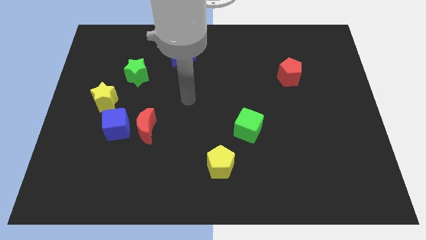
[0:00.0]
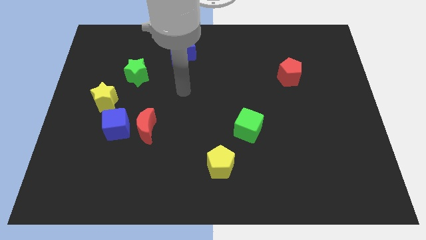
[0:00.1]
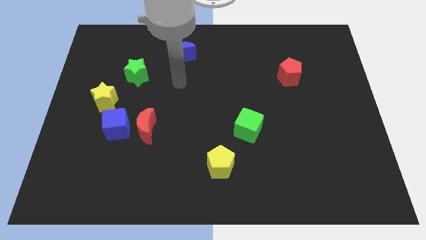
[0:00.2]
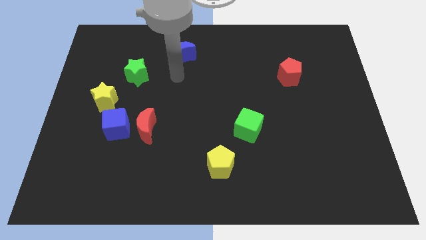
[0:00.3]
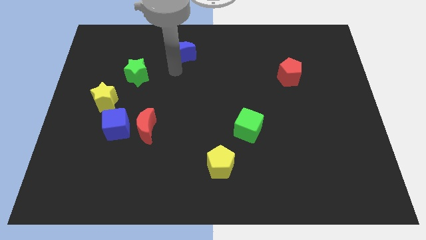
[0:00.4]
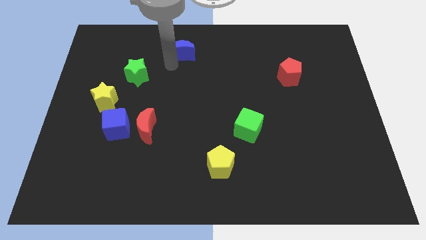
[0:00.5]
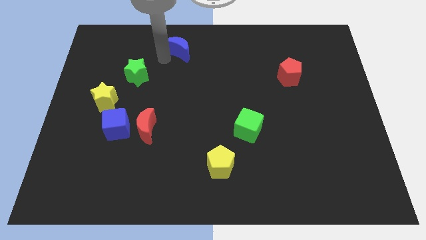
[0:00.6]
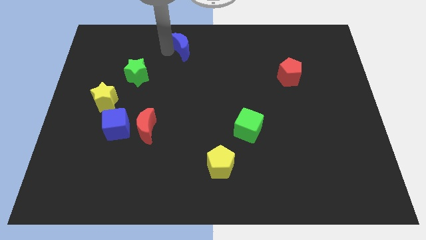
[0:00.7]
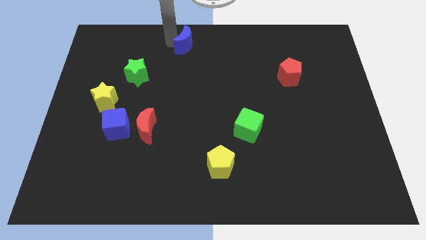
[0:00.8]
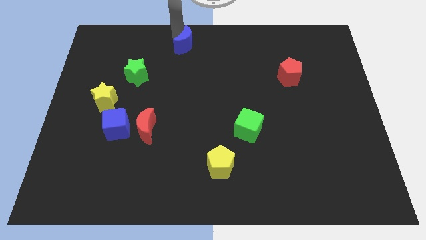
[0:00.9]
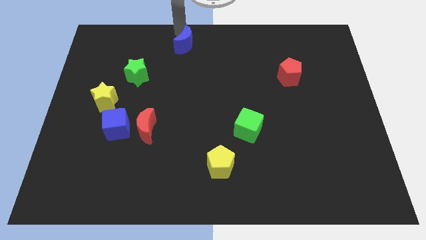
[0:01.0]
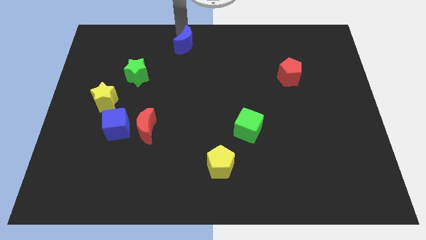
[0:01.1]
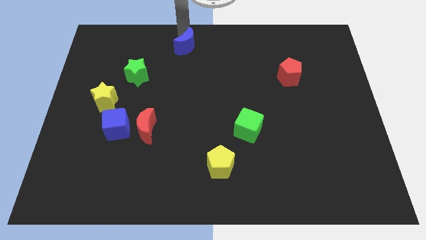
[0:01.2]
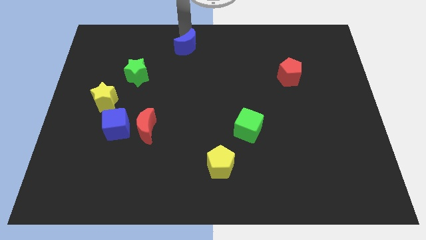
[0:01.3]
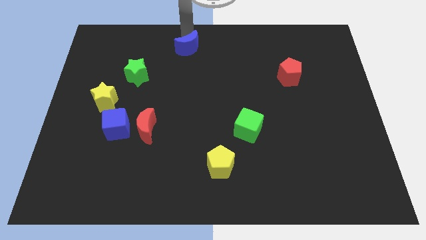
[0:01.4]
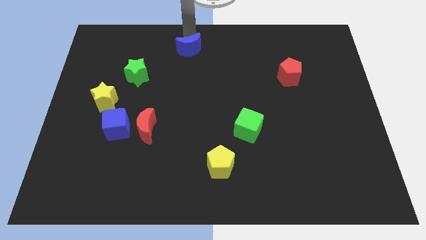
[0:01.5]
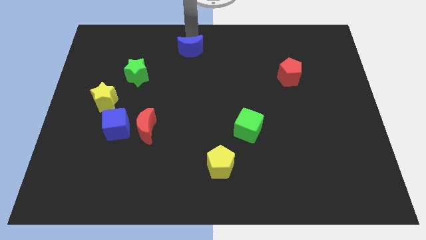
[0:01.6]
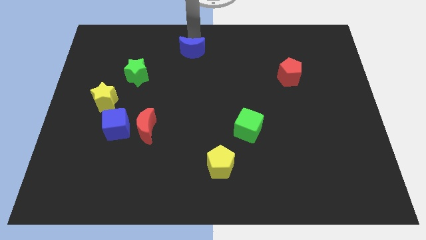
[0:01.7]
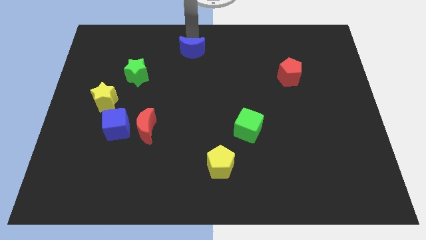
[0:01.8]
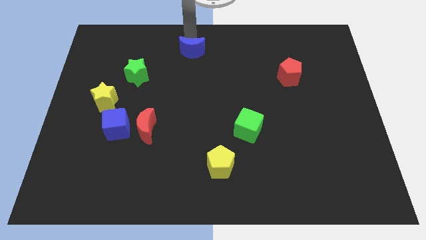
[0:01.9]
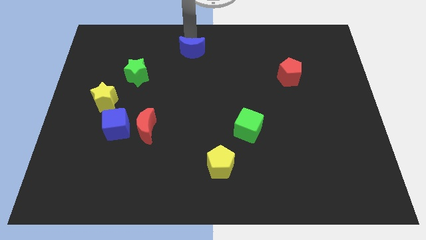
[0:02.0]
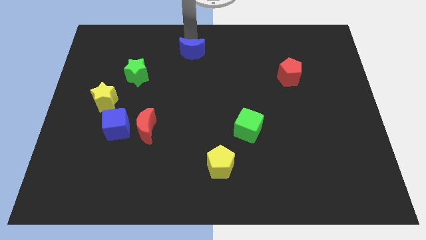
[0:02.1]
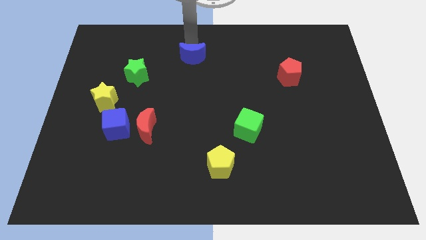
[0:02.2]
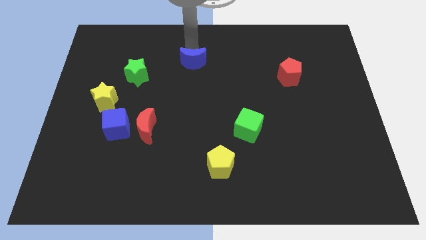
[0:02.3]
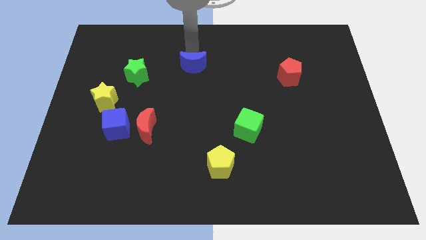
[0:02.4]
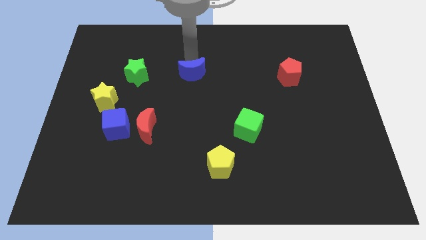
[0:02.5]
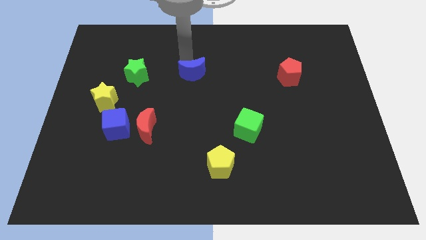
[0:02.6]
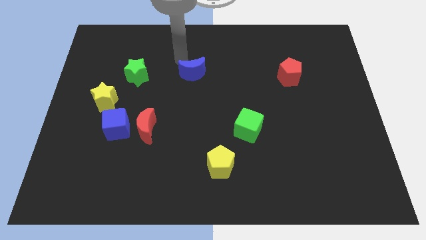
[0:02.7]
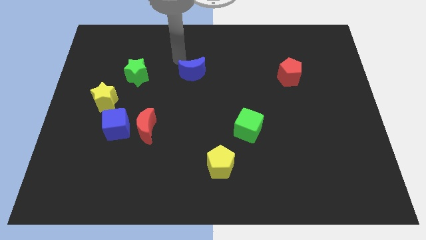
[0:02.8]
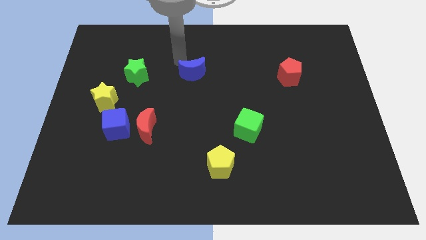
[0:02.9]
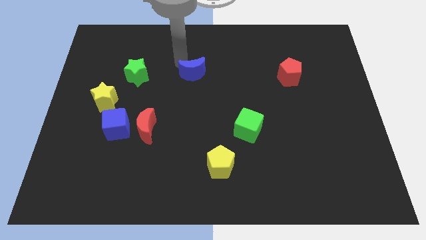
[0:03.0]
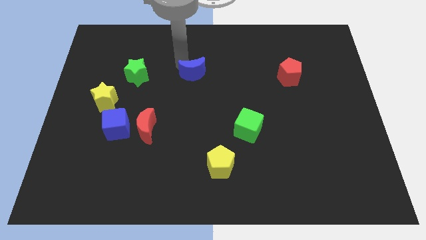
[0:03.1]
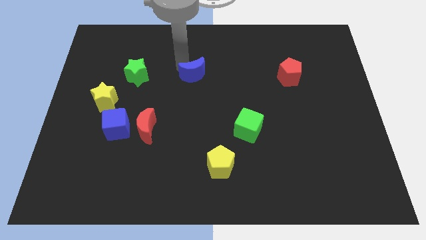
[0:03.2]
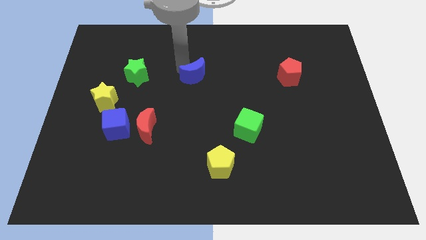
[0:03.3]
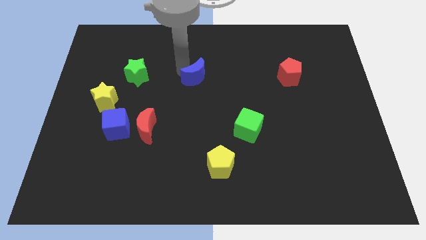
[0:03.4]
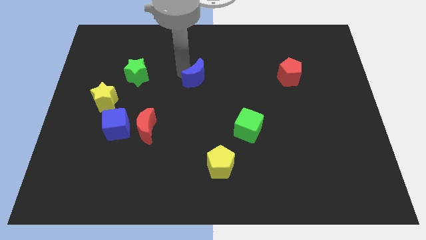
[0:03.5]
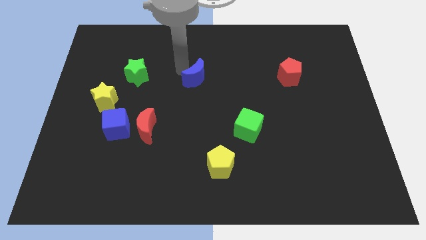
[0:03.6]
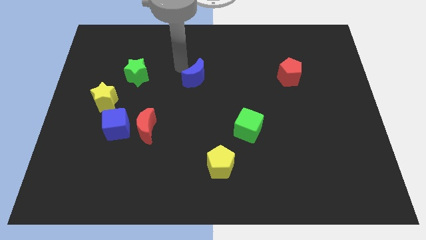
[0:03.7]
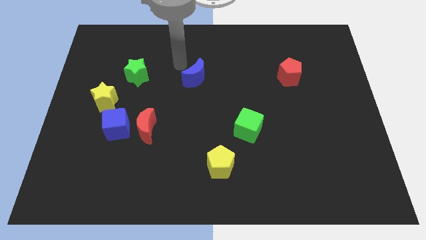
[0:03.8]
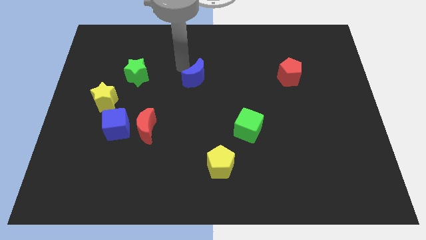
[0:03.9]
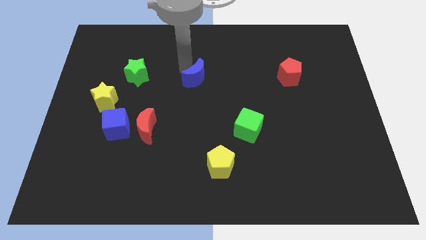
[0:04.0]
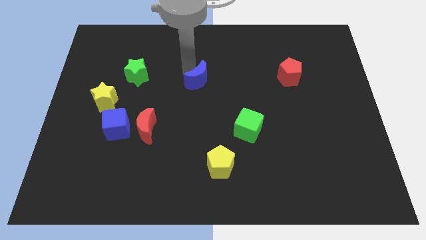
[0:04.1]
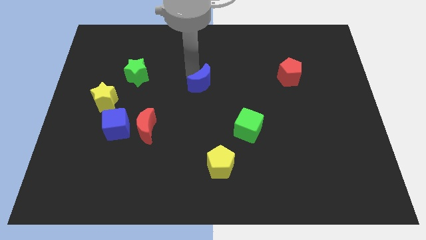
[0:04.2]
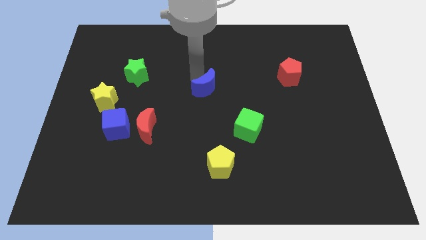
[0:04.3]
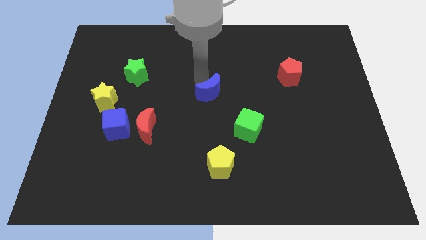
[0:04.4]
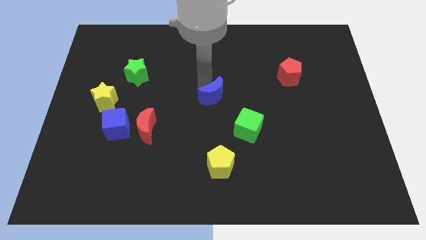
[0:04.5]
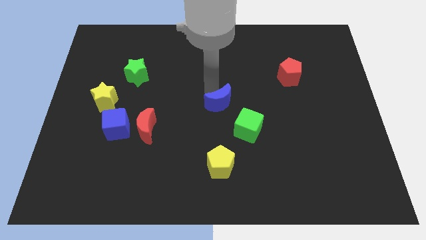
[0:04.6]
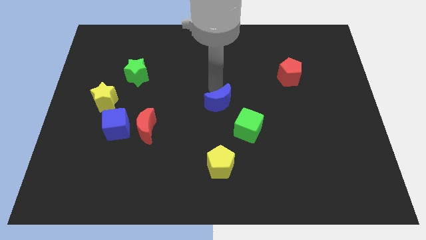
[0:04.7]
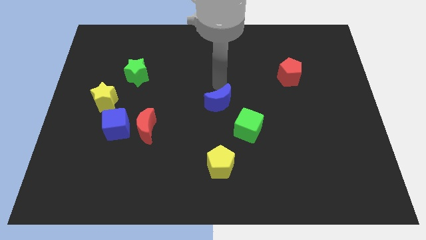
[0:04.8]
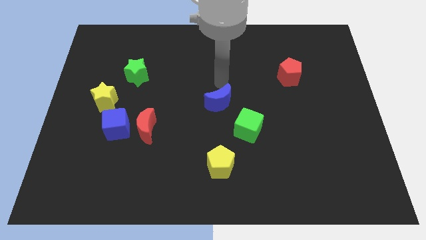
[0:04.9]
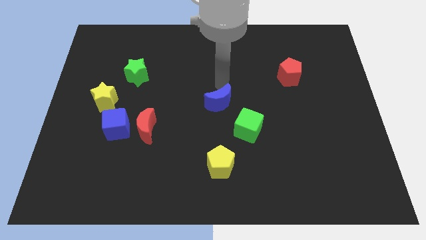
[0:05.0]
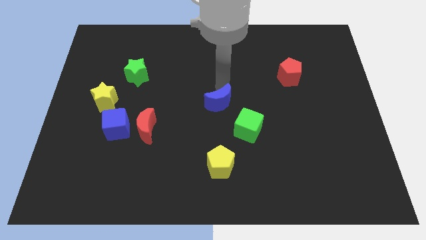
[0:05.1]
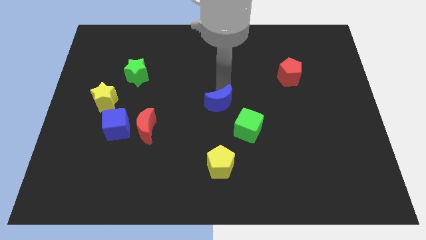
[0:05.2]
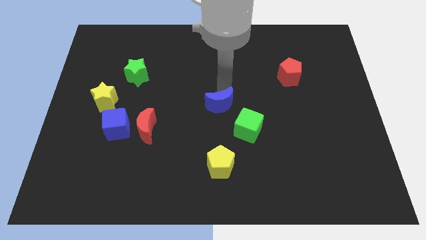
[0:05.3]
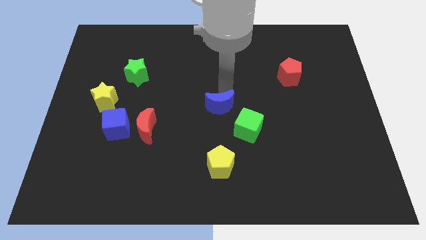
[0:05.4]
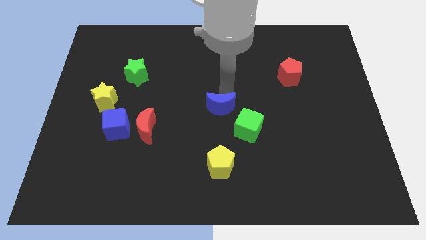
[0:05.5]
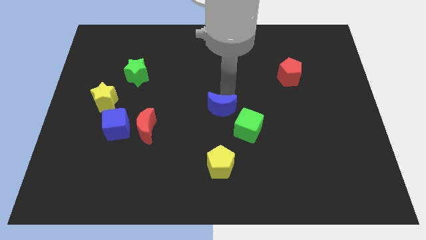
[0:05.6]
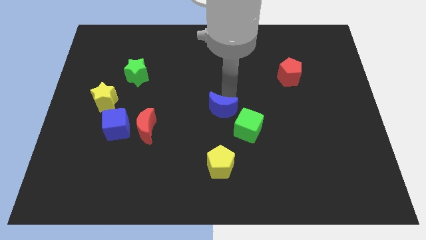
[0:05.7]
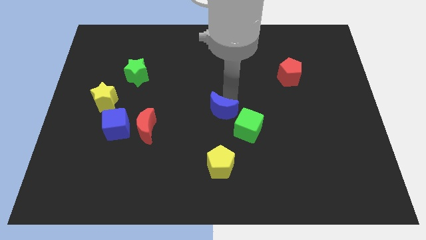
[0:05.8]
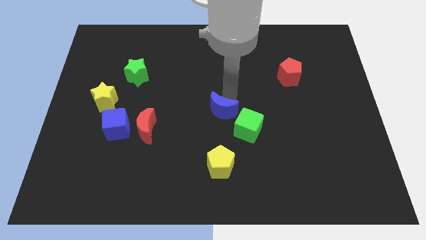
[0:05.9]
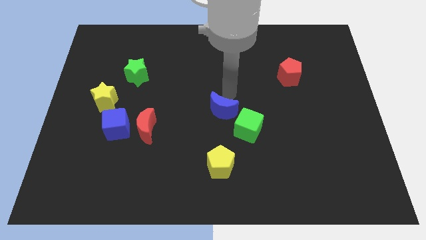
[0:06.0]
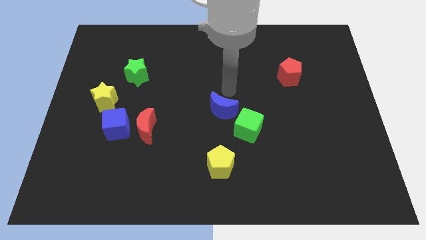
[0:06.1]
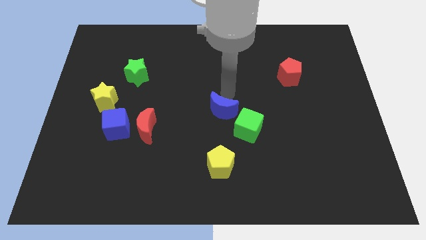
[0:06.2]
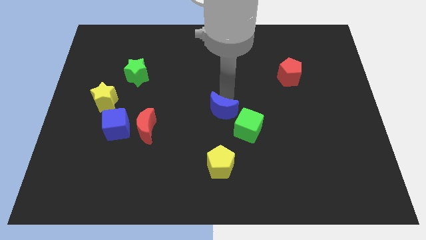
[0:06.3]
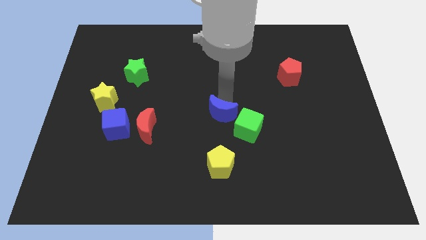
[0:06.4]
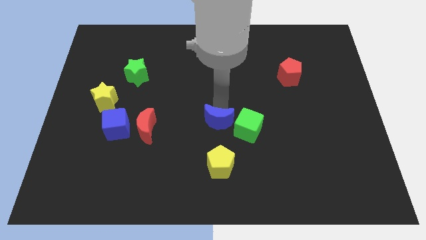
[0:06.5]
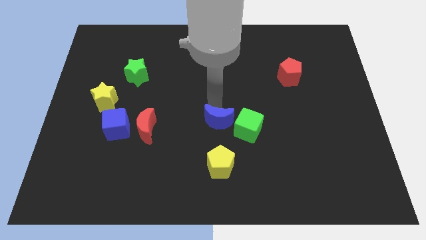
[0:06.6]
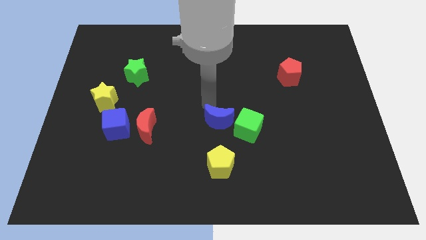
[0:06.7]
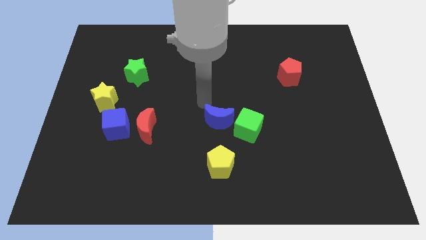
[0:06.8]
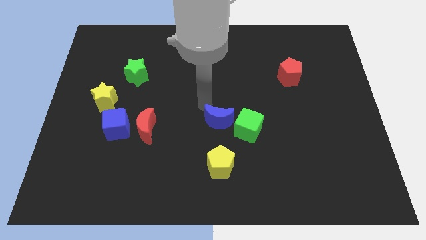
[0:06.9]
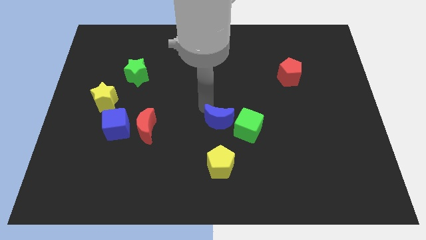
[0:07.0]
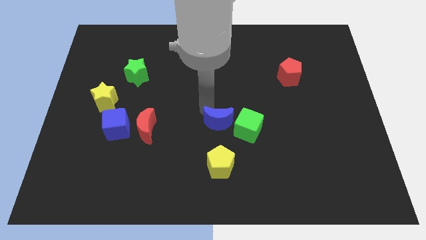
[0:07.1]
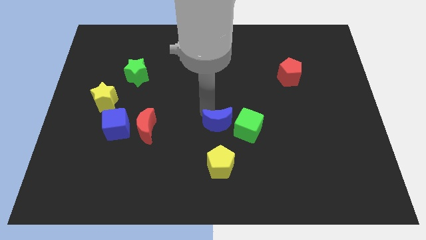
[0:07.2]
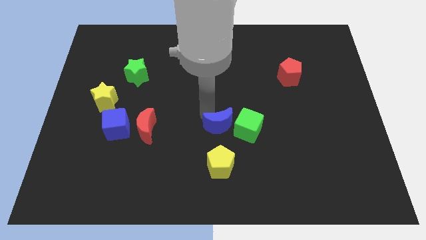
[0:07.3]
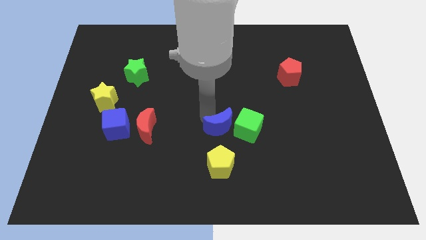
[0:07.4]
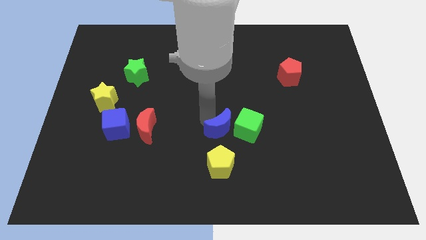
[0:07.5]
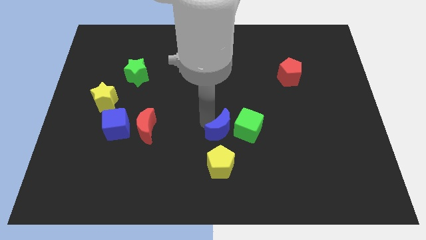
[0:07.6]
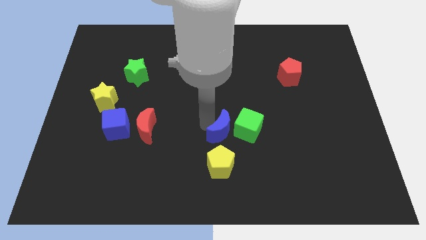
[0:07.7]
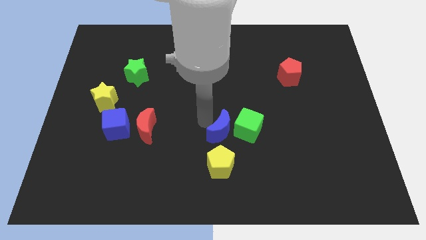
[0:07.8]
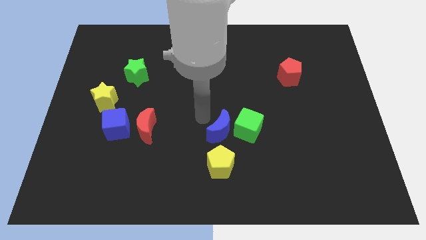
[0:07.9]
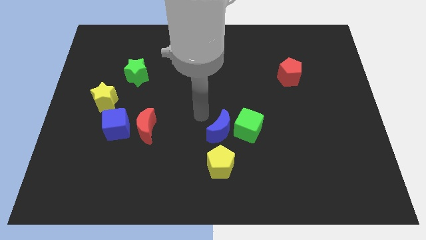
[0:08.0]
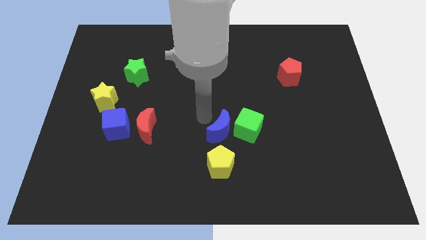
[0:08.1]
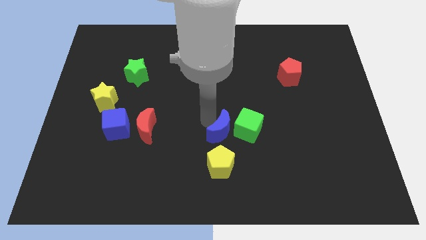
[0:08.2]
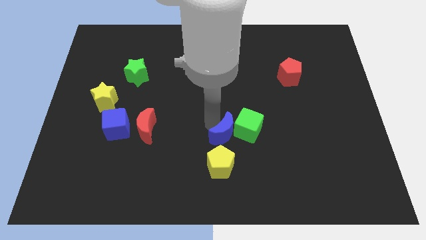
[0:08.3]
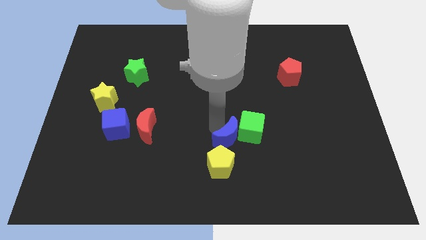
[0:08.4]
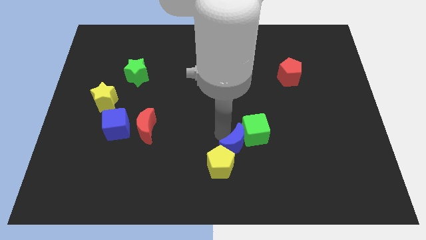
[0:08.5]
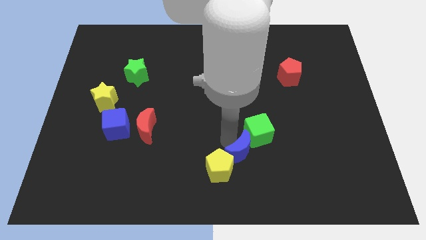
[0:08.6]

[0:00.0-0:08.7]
move the blue moon just right of the yellow pentagon
